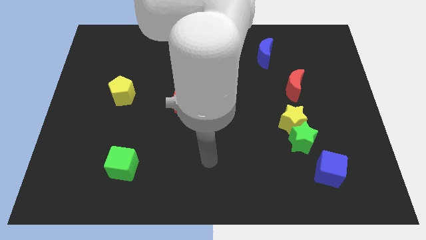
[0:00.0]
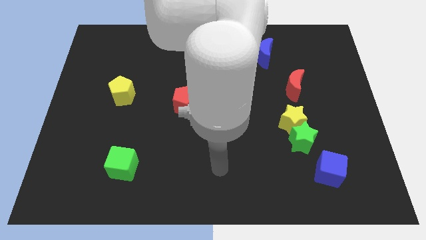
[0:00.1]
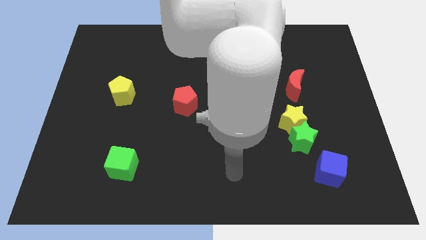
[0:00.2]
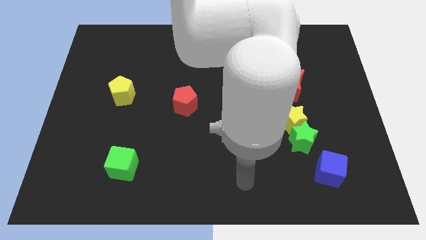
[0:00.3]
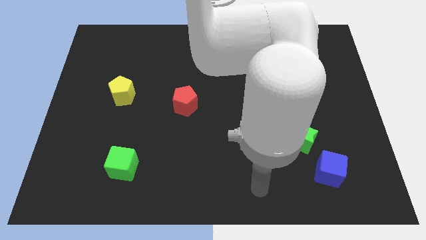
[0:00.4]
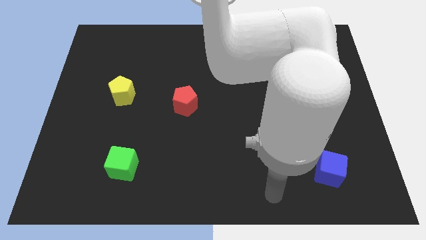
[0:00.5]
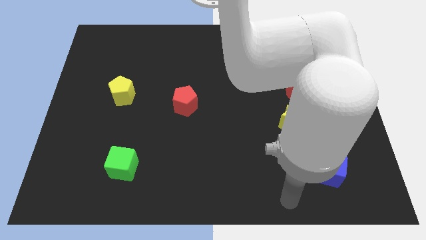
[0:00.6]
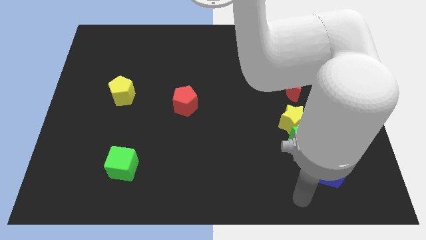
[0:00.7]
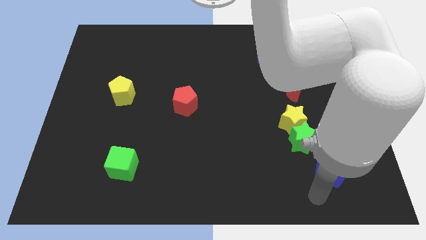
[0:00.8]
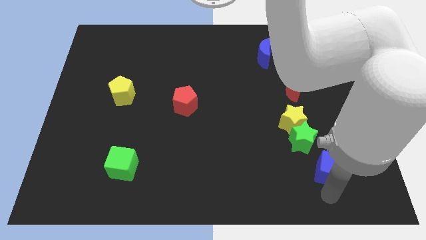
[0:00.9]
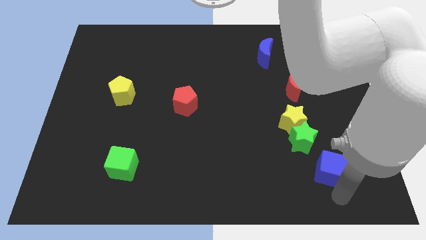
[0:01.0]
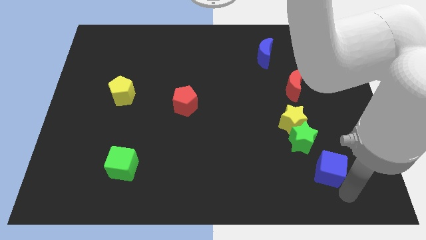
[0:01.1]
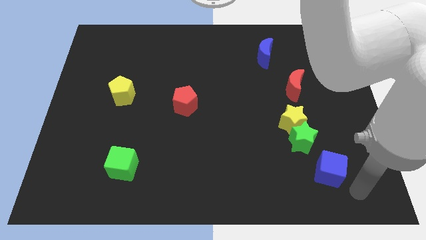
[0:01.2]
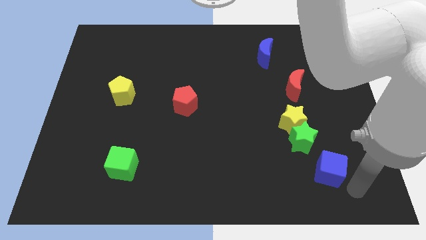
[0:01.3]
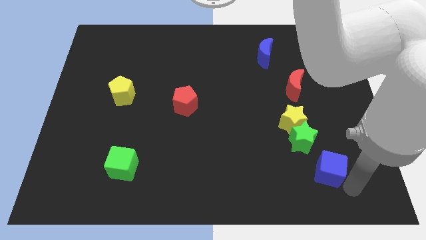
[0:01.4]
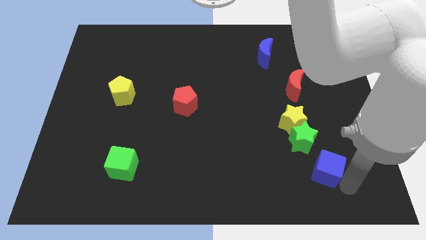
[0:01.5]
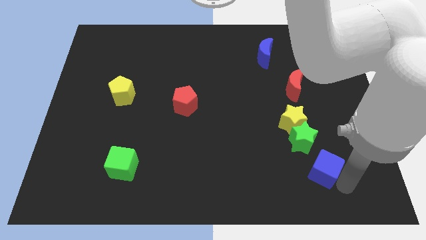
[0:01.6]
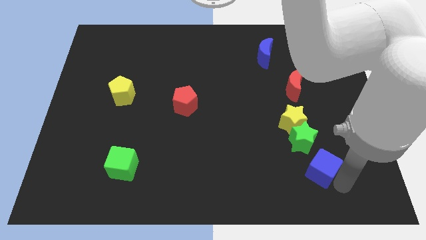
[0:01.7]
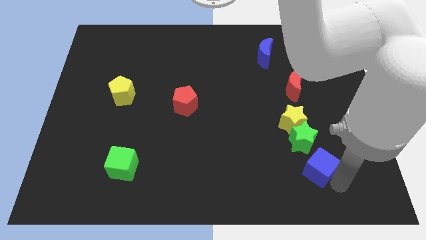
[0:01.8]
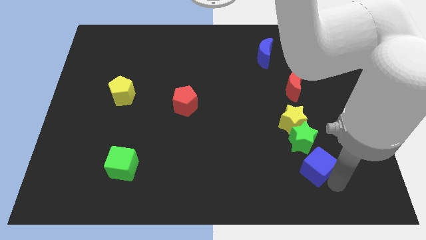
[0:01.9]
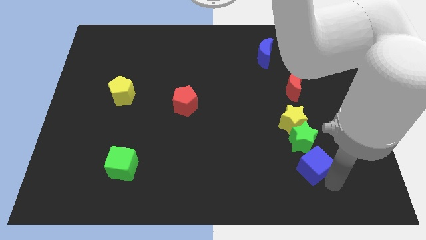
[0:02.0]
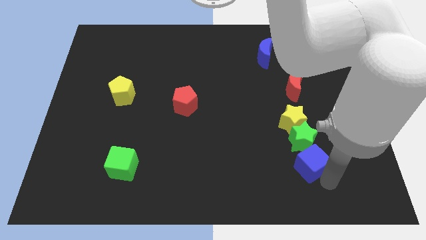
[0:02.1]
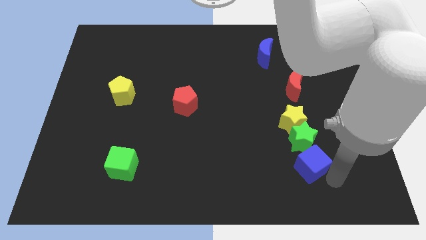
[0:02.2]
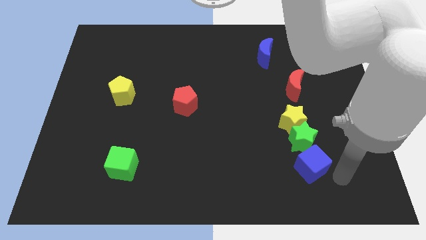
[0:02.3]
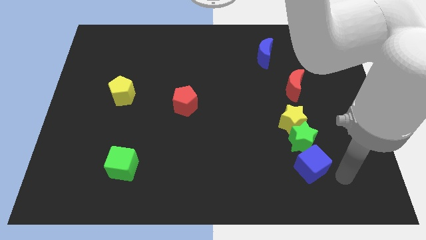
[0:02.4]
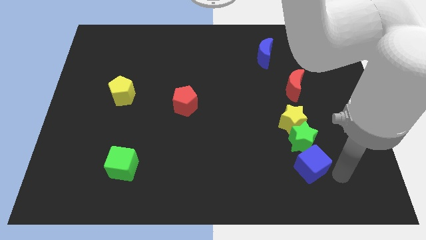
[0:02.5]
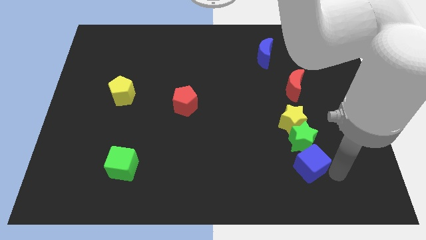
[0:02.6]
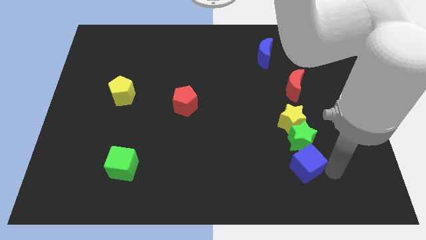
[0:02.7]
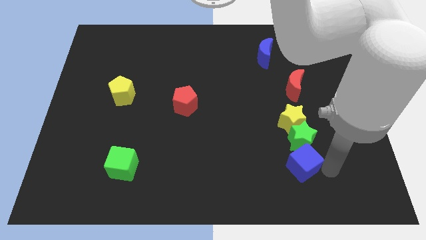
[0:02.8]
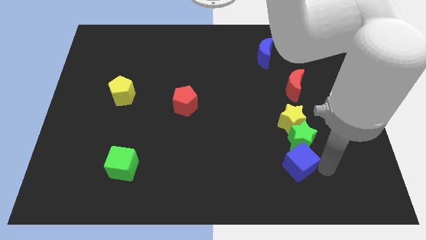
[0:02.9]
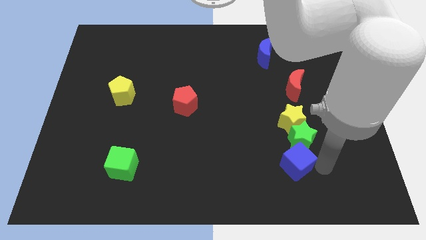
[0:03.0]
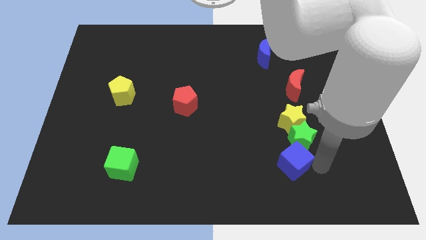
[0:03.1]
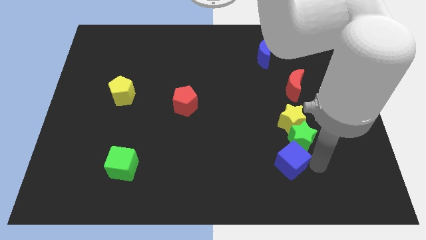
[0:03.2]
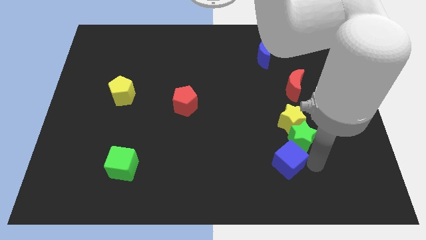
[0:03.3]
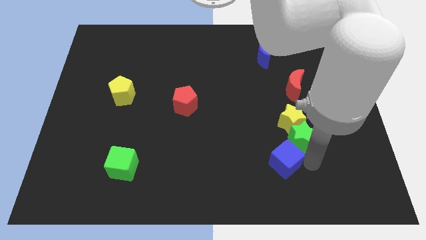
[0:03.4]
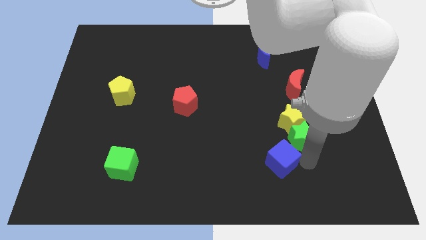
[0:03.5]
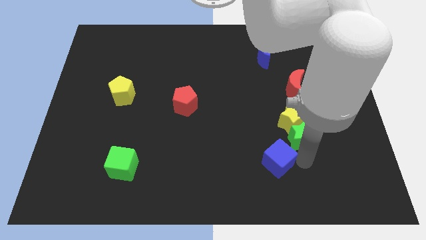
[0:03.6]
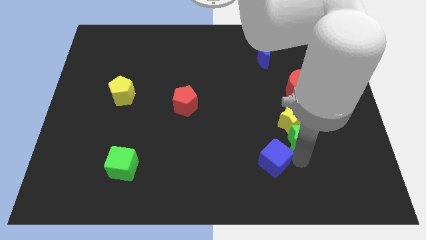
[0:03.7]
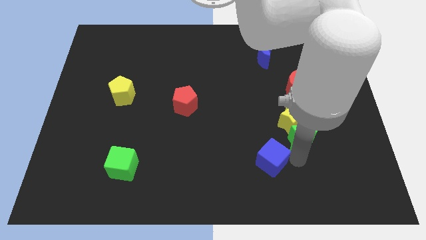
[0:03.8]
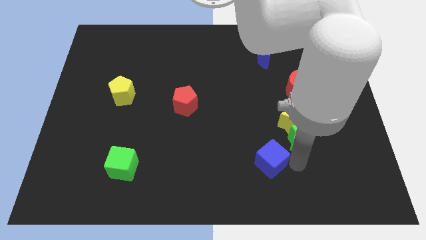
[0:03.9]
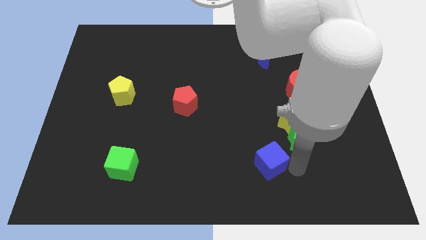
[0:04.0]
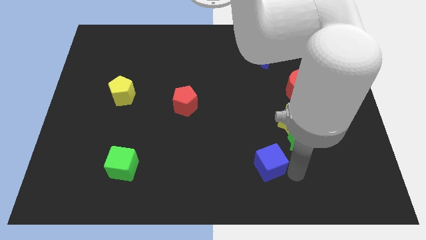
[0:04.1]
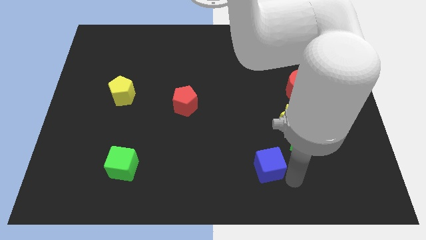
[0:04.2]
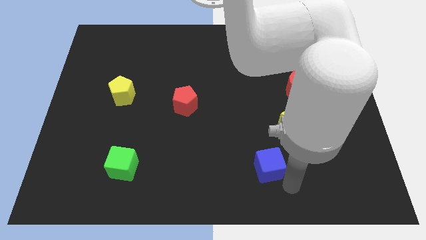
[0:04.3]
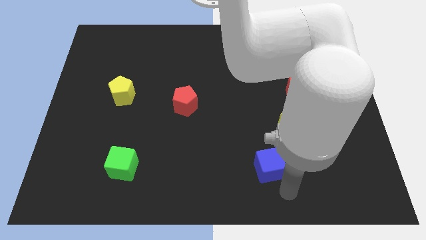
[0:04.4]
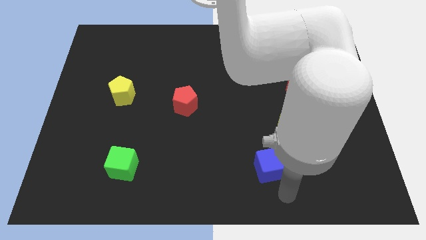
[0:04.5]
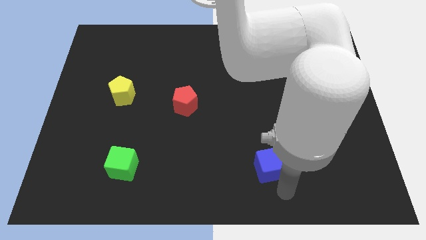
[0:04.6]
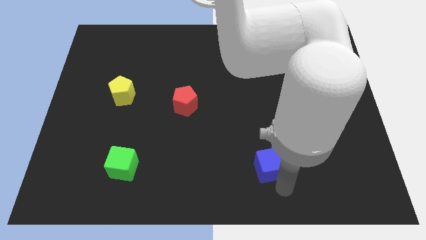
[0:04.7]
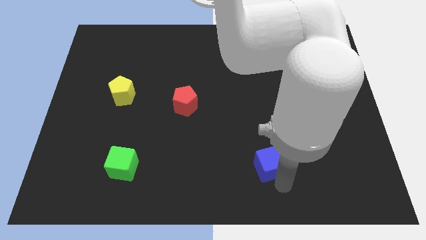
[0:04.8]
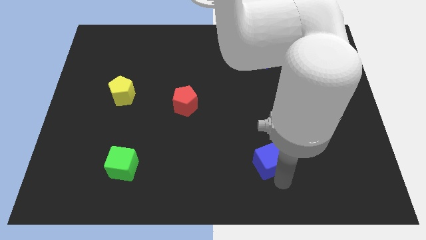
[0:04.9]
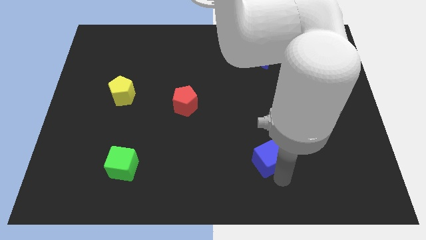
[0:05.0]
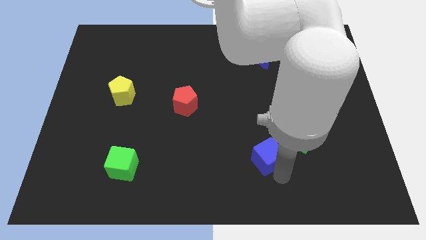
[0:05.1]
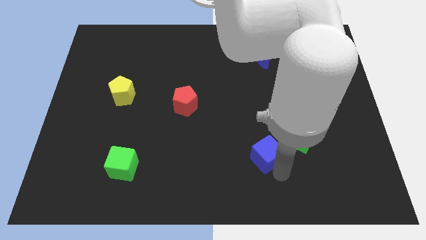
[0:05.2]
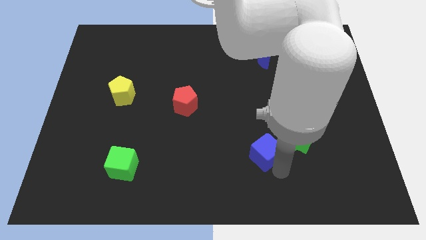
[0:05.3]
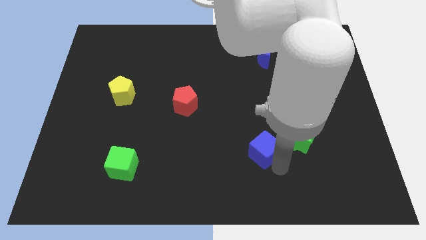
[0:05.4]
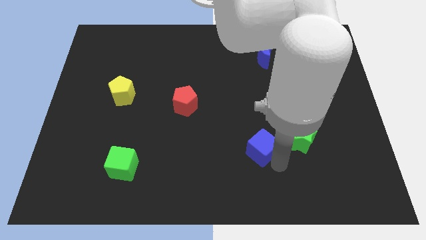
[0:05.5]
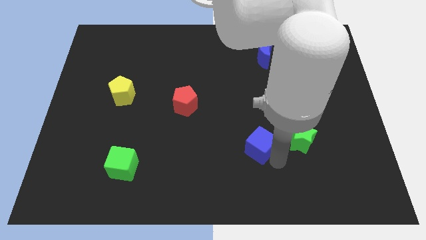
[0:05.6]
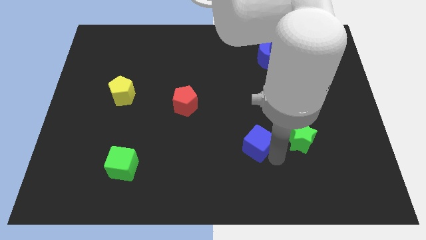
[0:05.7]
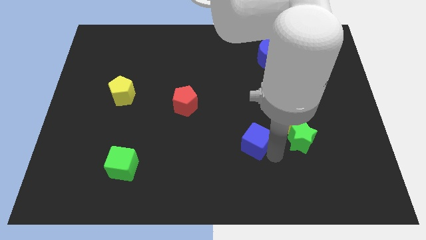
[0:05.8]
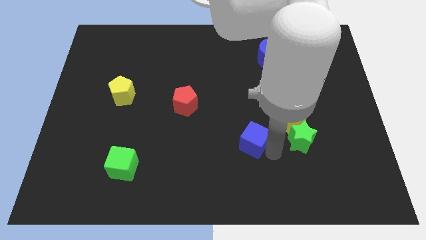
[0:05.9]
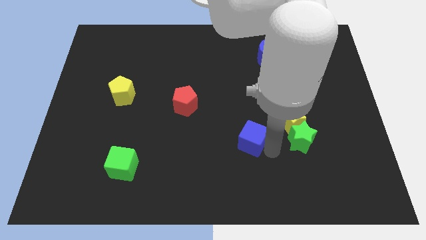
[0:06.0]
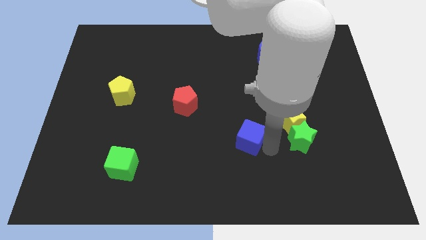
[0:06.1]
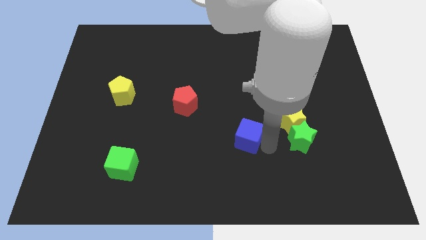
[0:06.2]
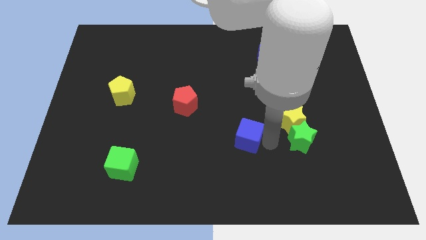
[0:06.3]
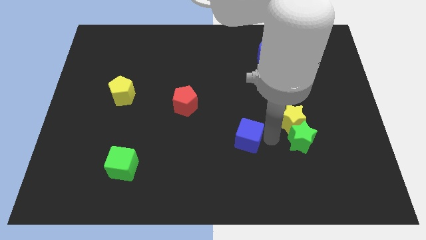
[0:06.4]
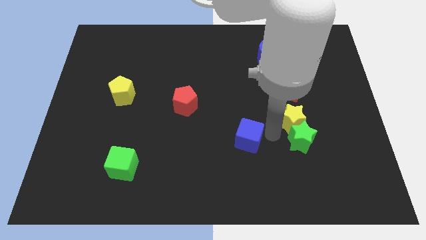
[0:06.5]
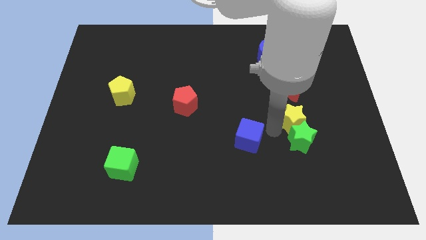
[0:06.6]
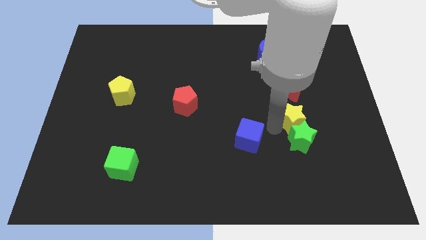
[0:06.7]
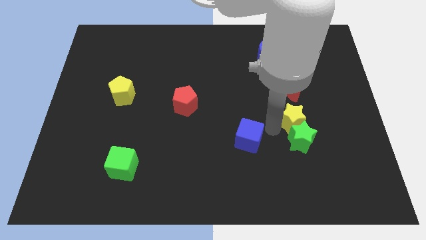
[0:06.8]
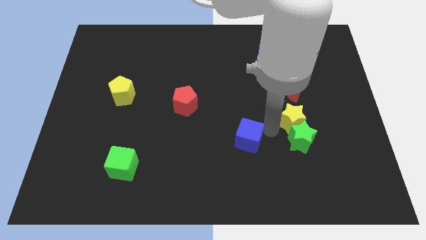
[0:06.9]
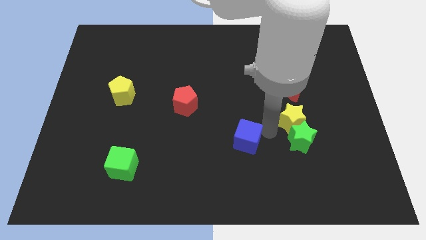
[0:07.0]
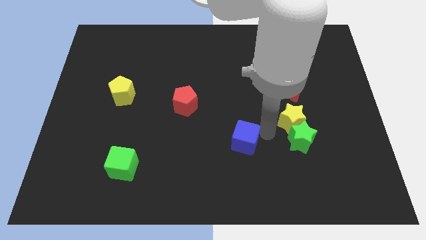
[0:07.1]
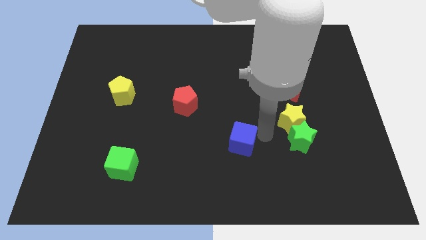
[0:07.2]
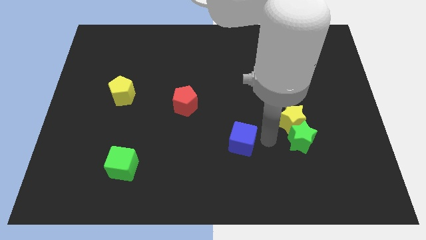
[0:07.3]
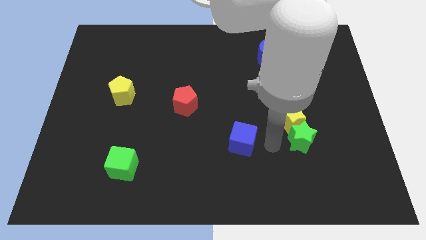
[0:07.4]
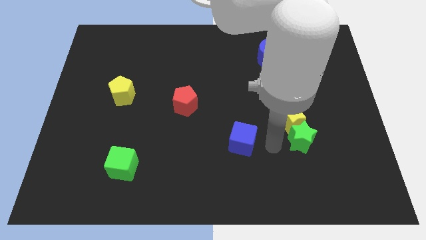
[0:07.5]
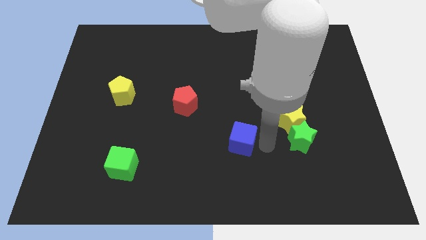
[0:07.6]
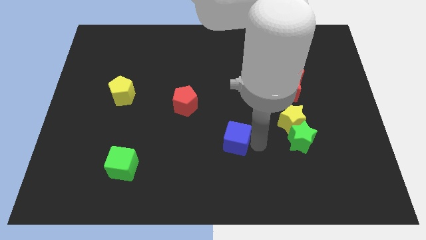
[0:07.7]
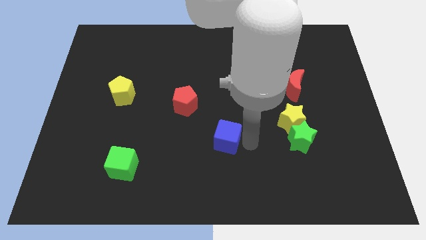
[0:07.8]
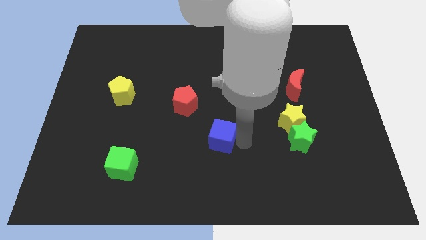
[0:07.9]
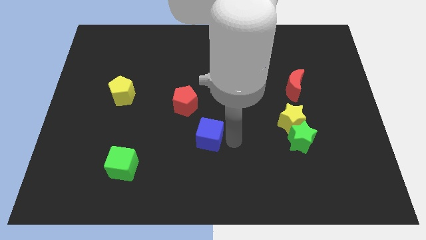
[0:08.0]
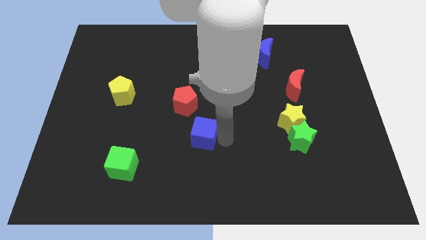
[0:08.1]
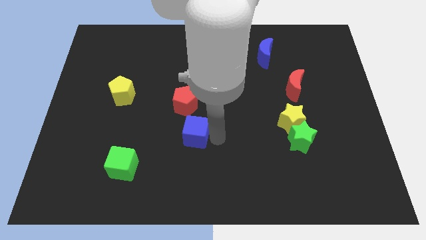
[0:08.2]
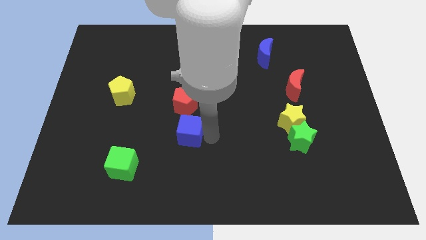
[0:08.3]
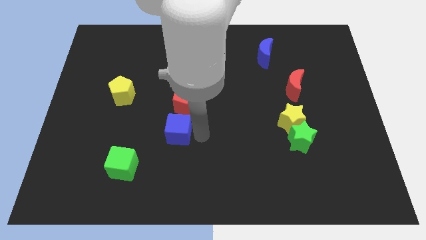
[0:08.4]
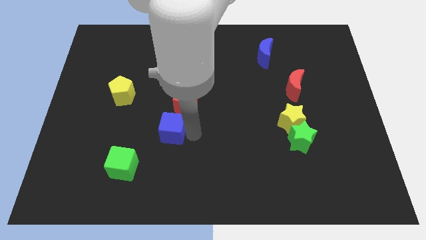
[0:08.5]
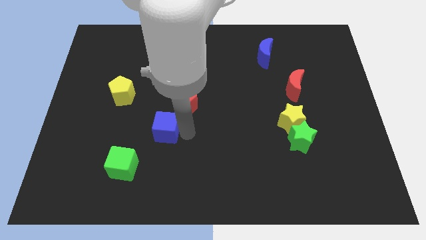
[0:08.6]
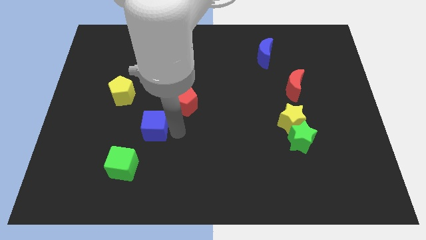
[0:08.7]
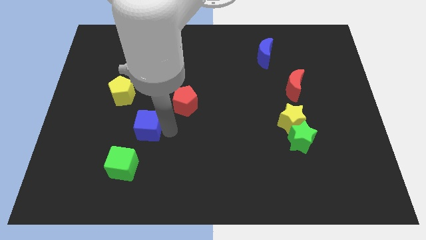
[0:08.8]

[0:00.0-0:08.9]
slide the blue cube to the top of the green cube
